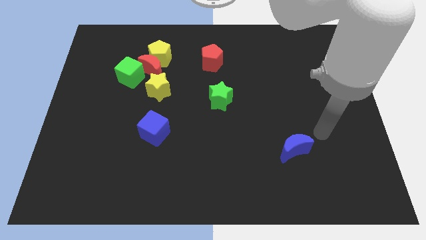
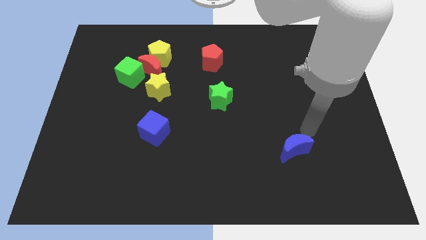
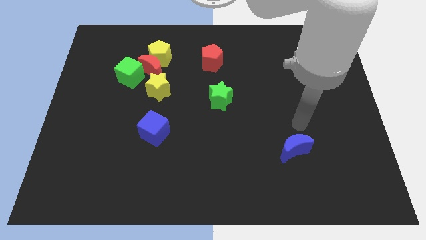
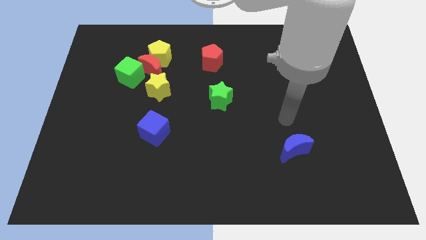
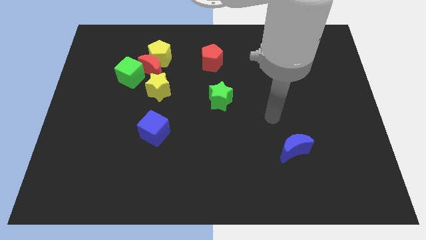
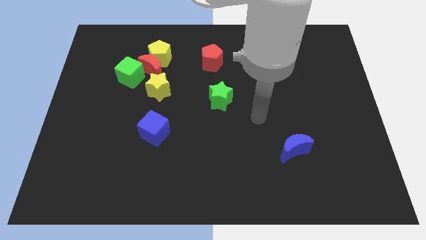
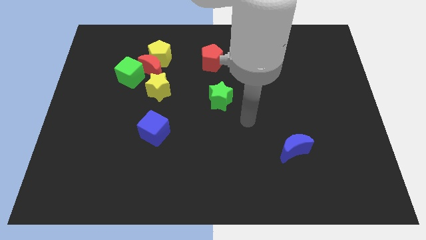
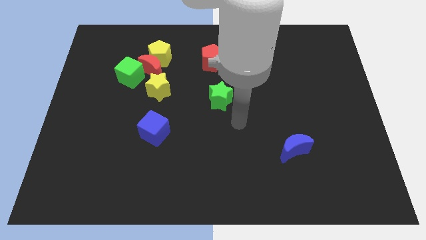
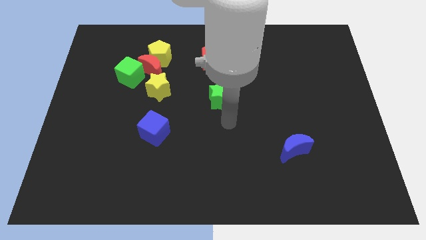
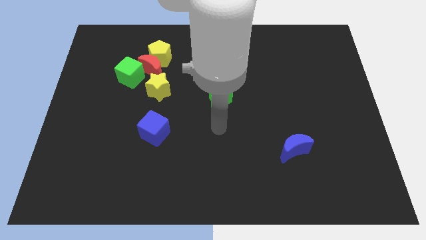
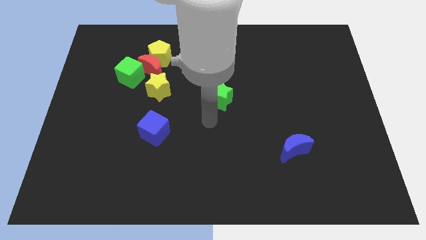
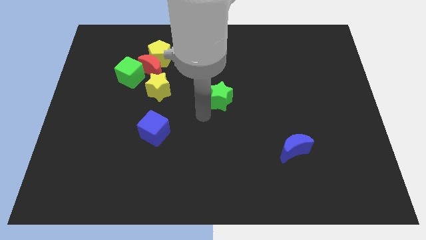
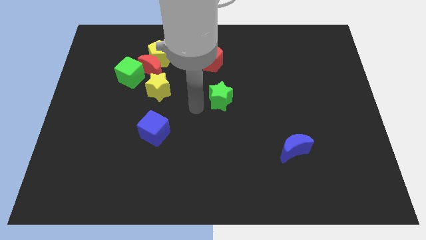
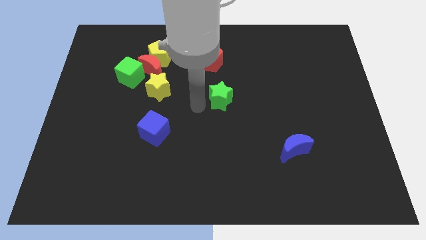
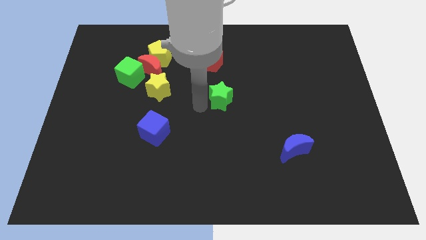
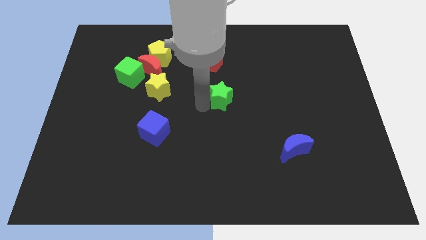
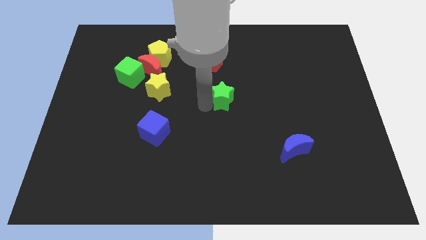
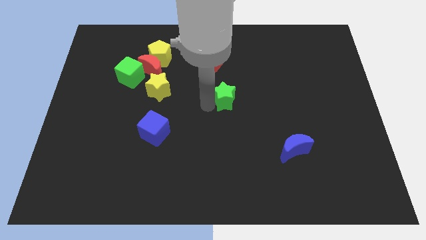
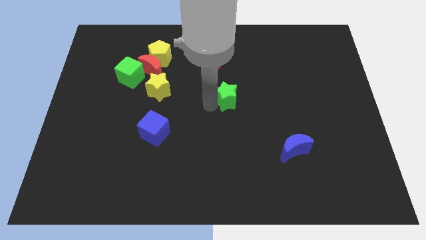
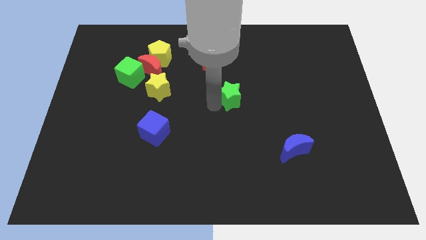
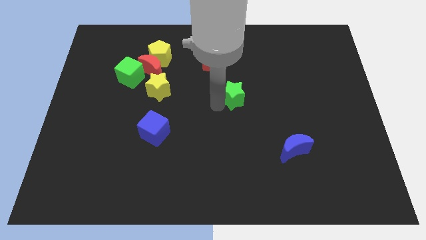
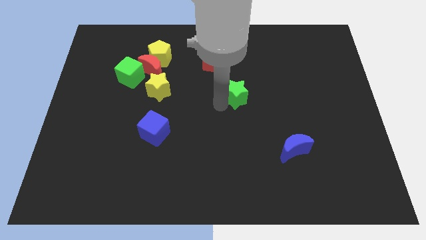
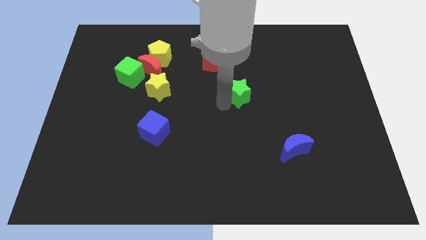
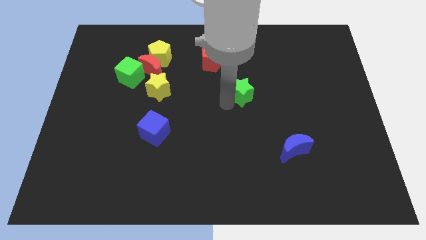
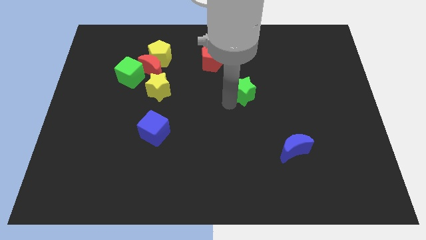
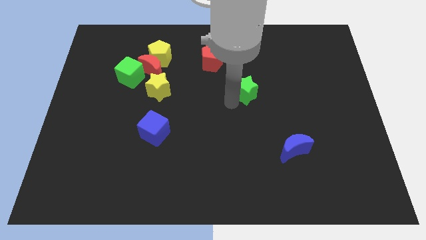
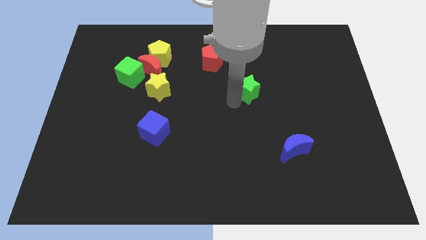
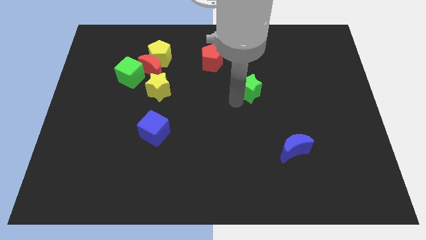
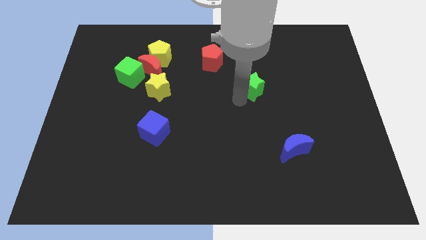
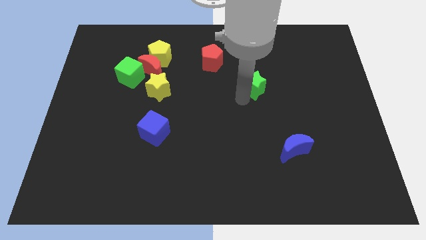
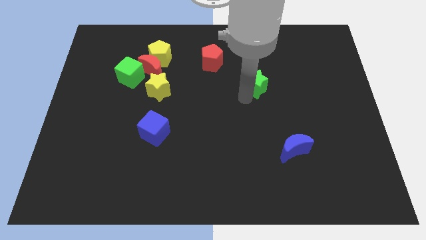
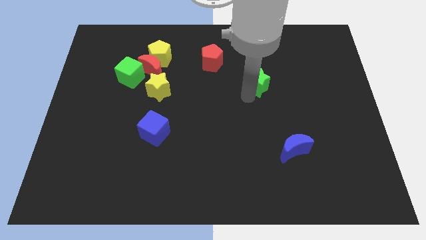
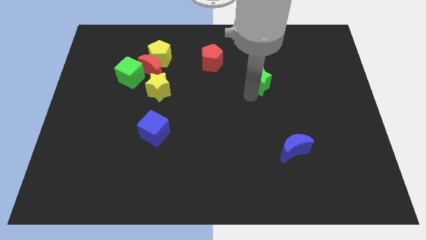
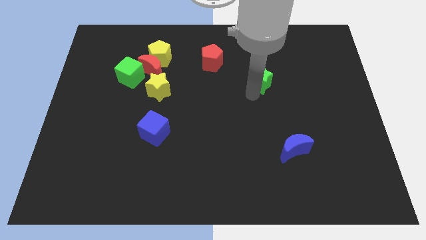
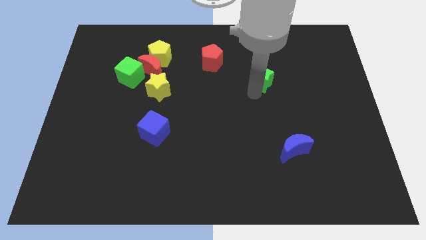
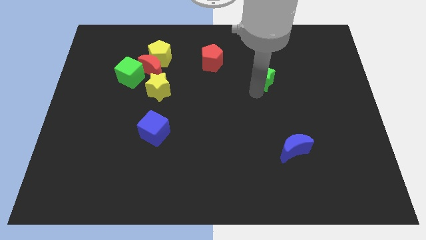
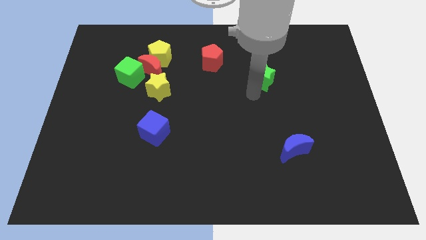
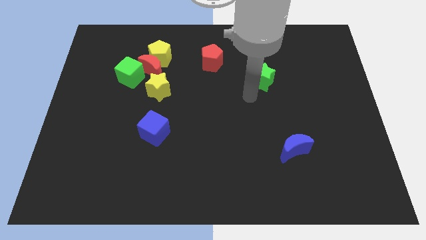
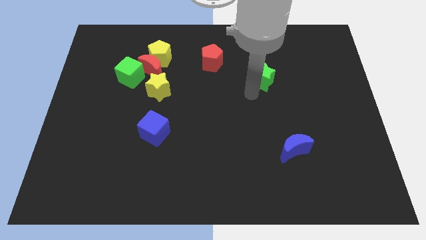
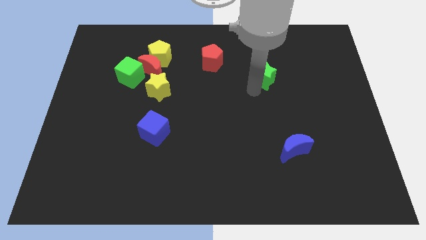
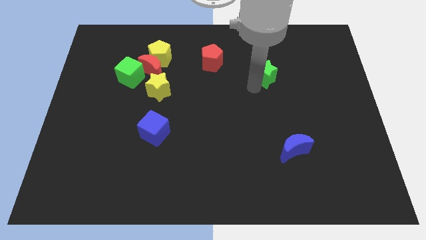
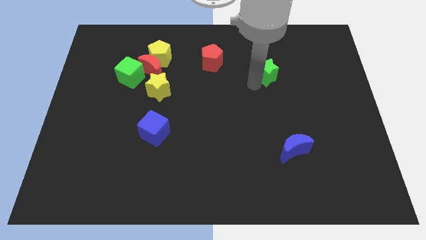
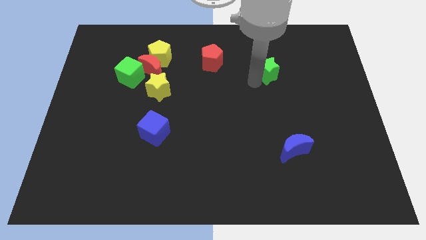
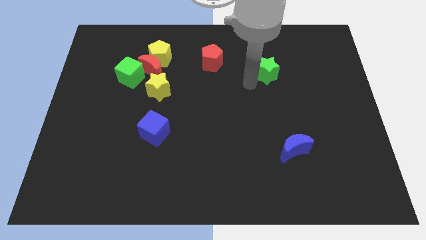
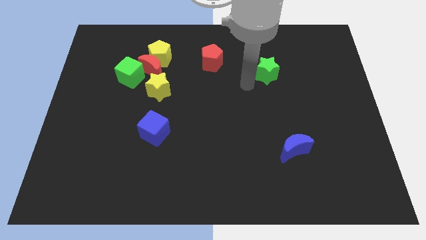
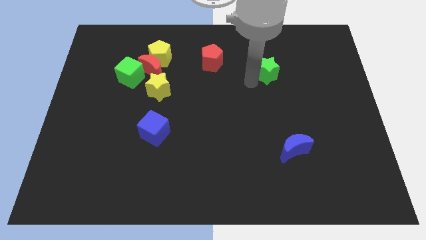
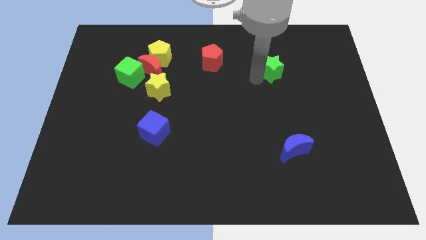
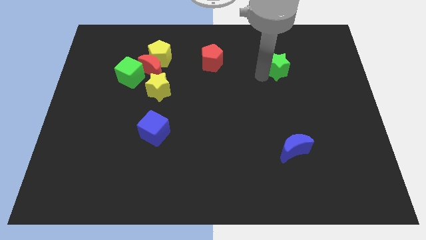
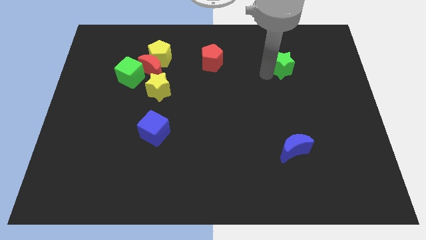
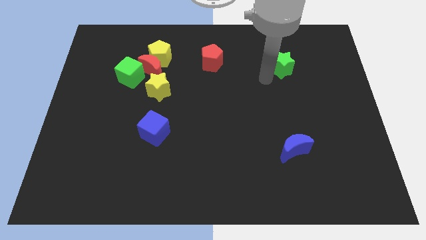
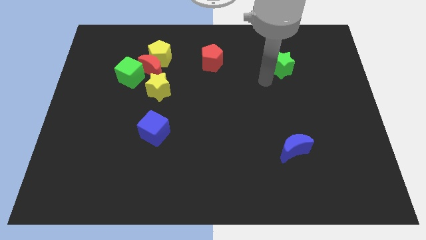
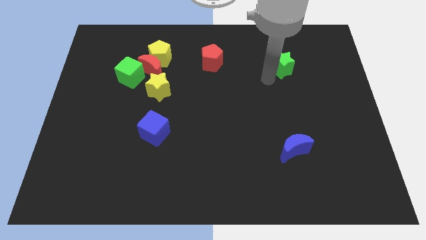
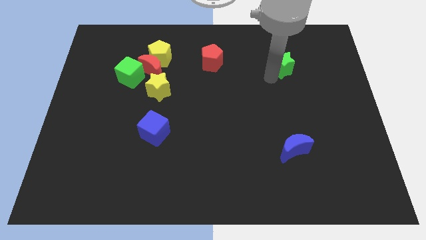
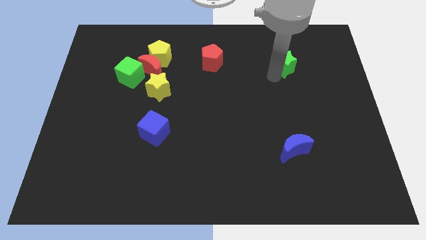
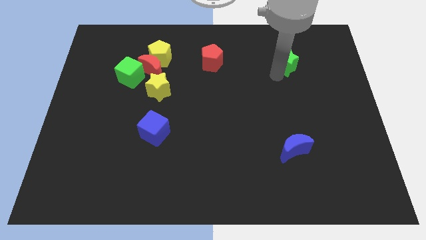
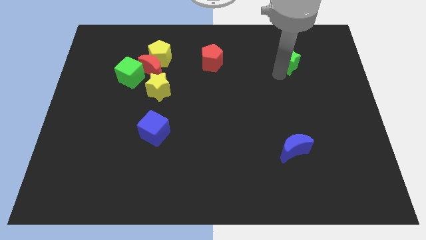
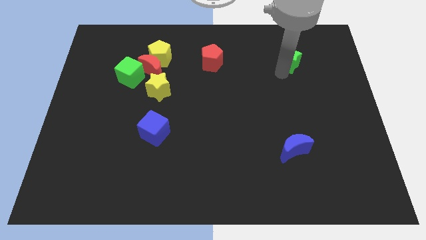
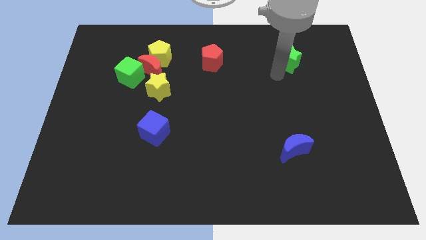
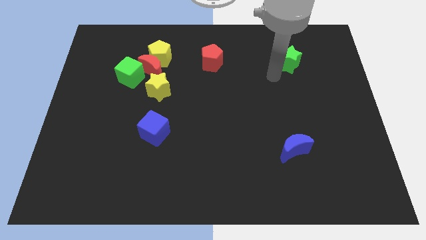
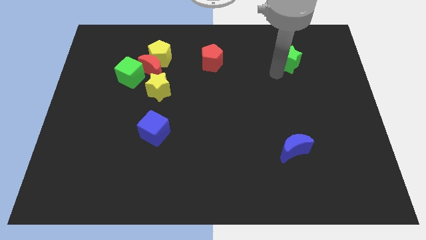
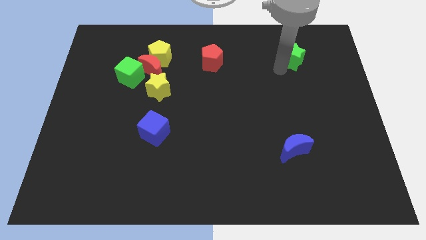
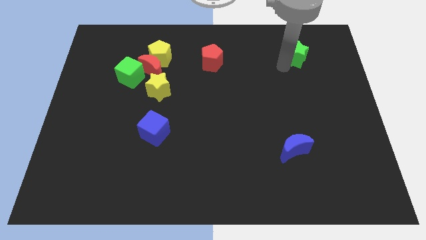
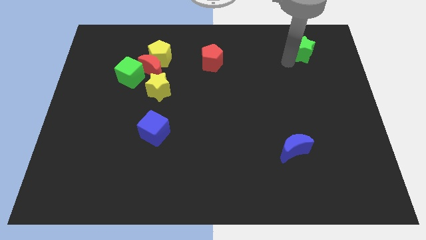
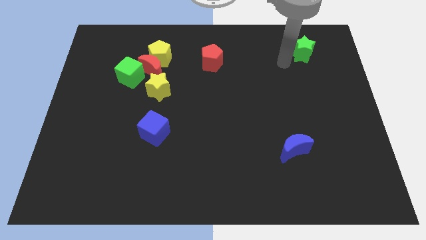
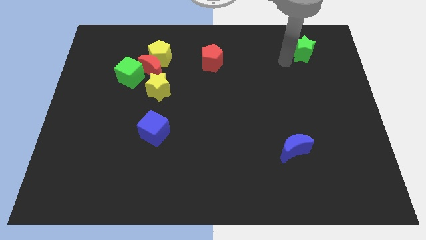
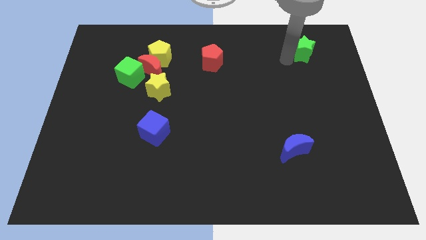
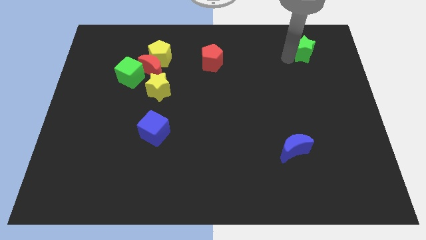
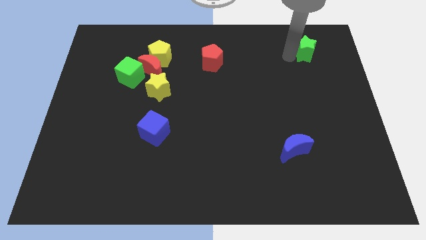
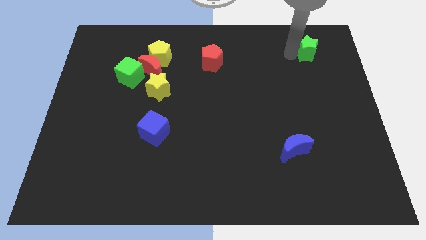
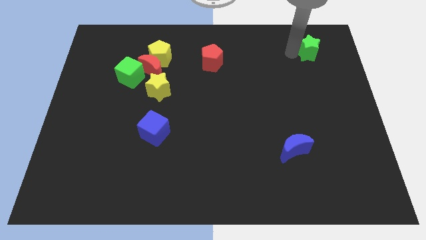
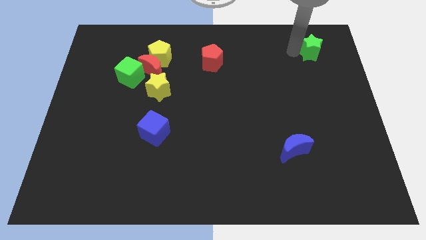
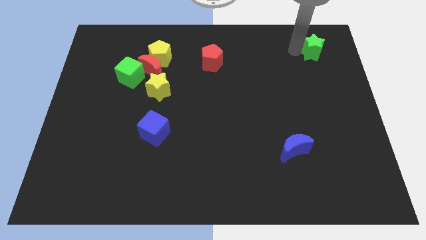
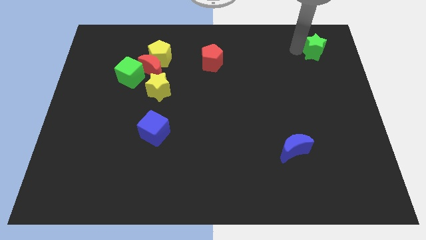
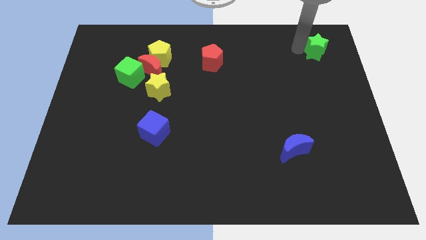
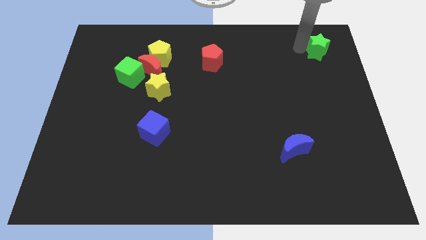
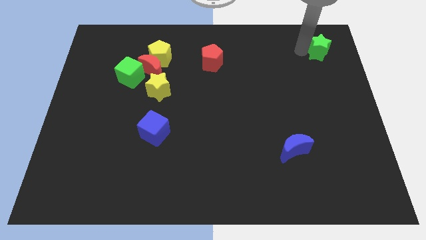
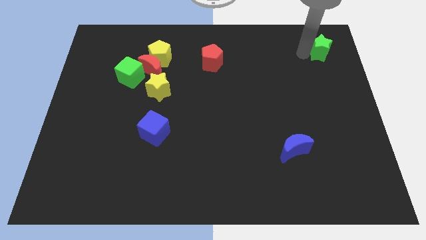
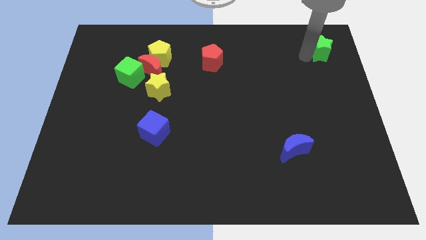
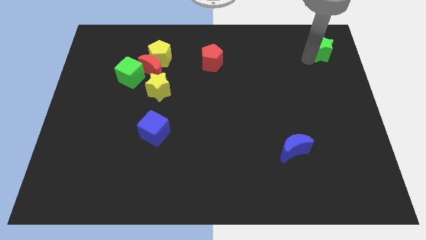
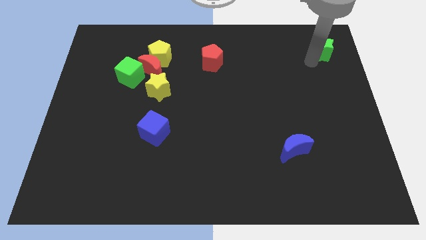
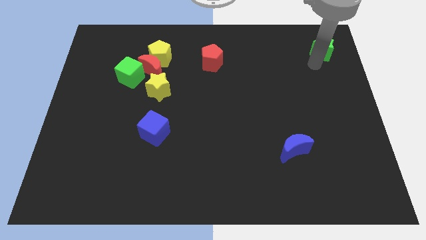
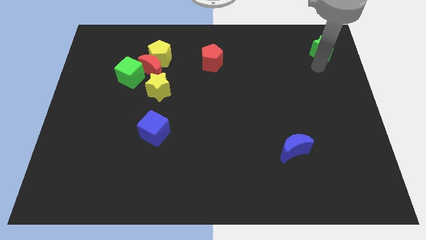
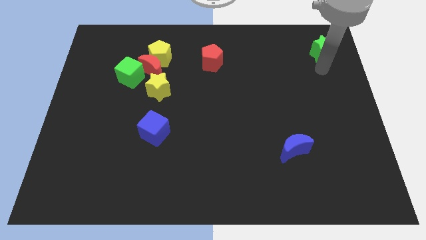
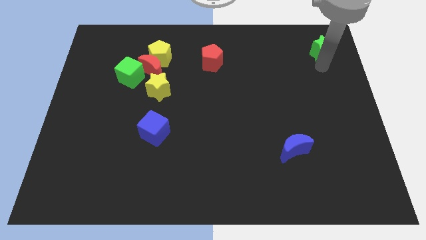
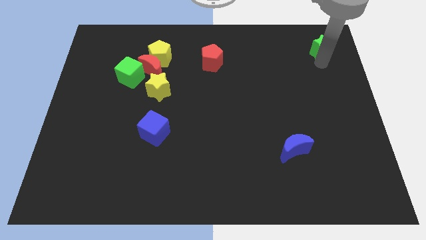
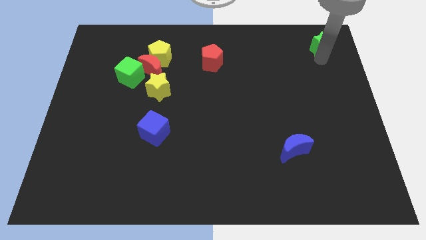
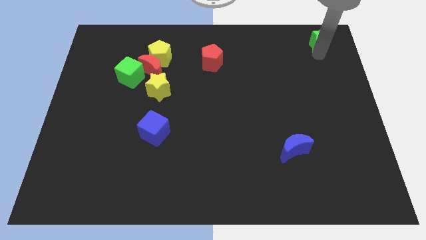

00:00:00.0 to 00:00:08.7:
slide the green star to the top right corner
